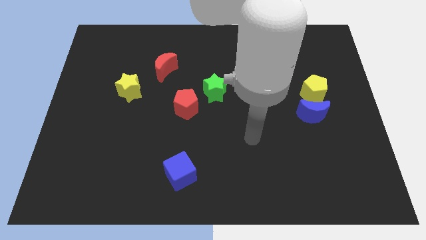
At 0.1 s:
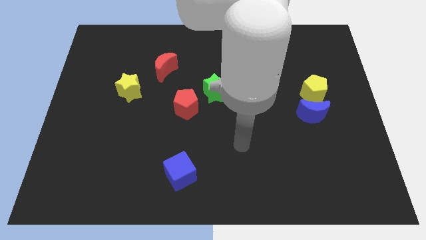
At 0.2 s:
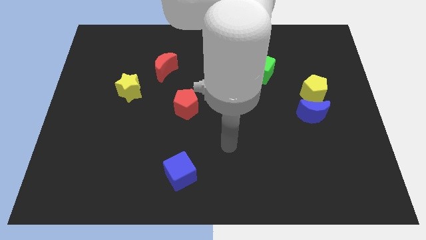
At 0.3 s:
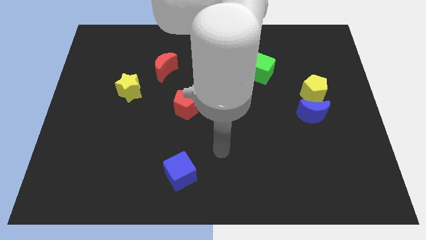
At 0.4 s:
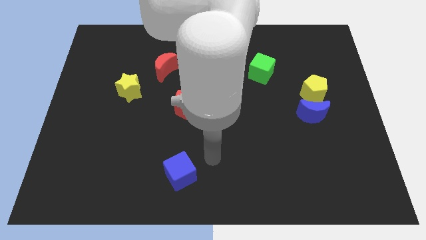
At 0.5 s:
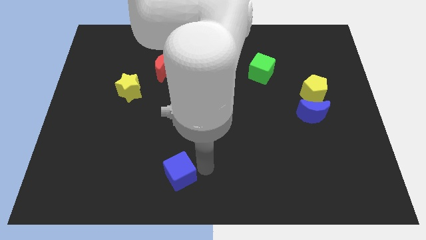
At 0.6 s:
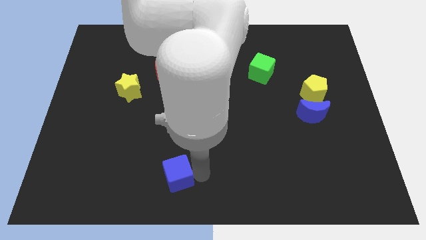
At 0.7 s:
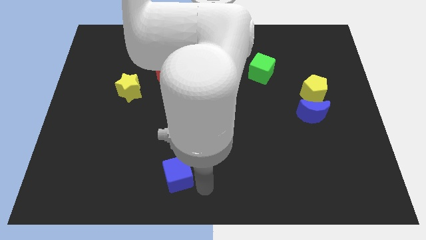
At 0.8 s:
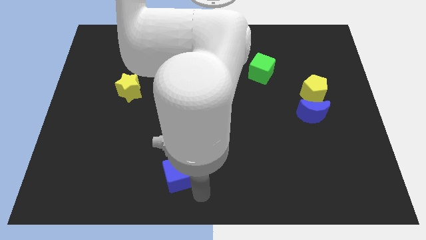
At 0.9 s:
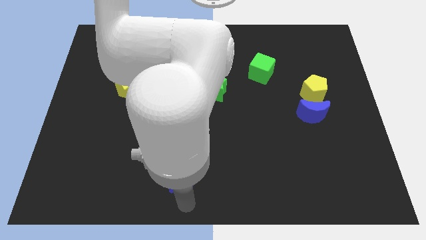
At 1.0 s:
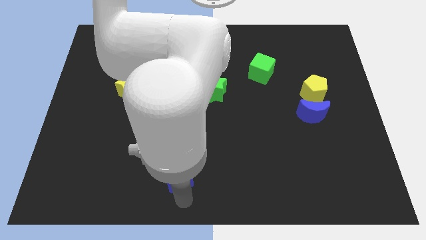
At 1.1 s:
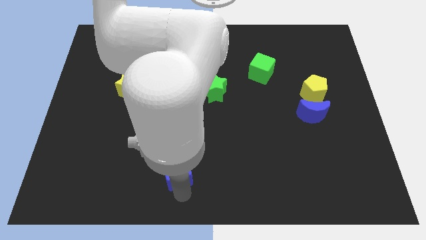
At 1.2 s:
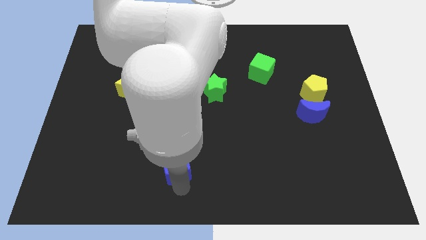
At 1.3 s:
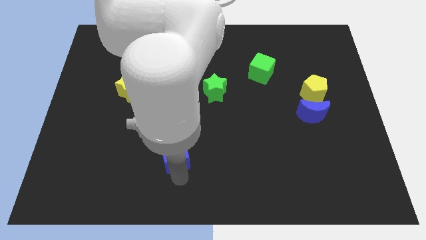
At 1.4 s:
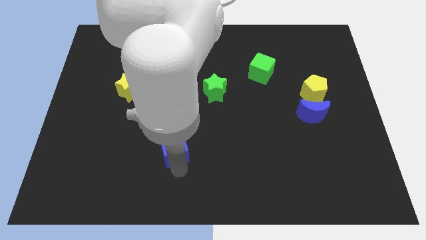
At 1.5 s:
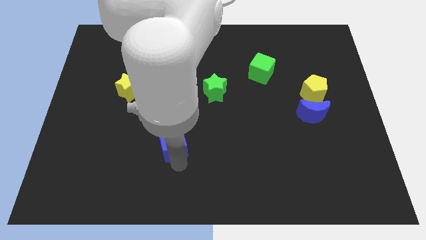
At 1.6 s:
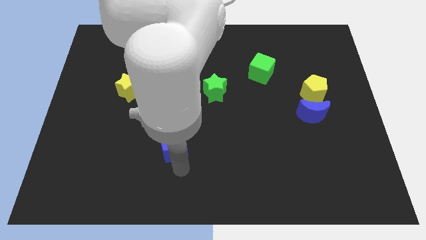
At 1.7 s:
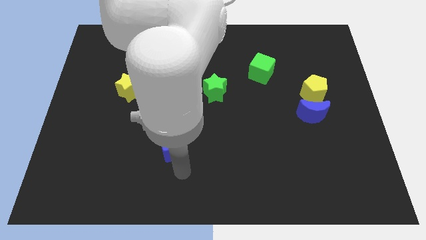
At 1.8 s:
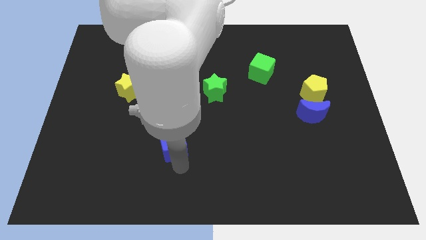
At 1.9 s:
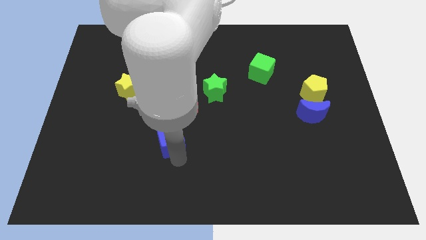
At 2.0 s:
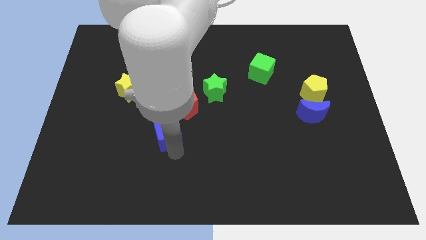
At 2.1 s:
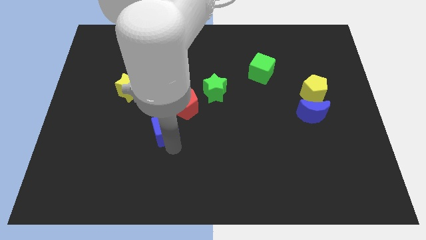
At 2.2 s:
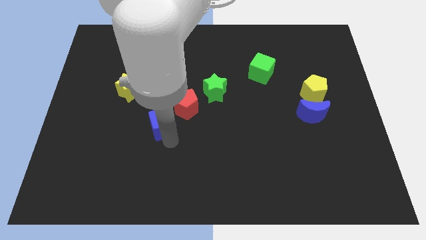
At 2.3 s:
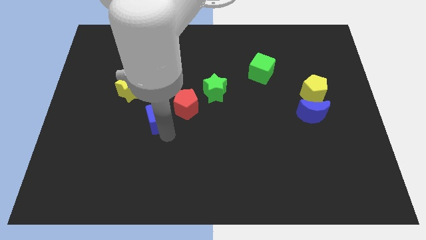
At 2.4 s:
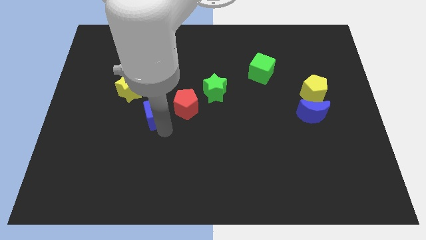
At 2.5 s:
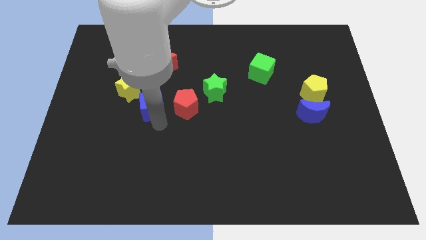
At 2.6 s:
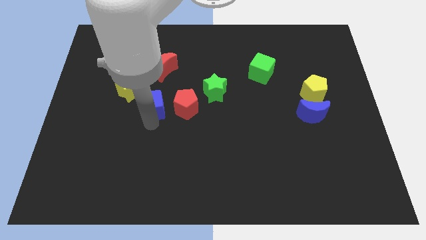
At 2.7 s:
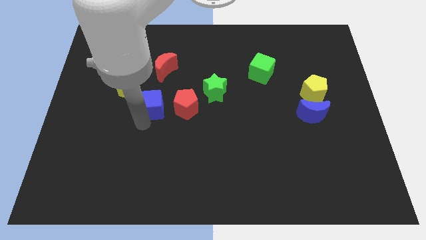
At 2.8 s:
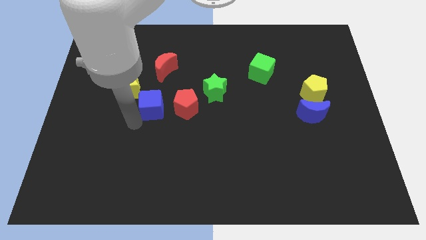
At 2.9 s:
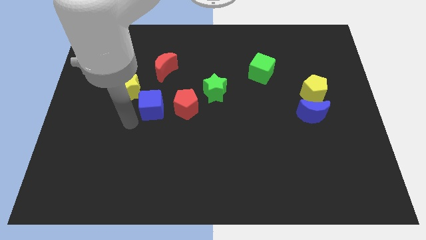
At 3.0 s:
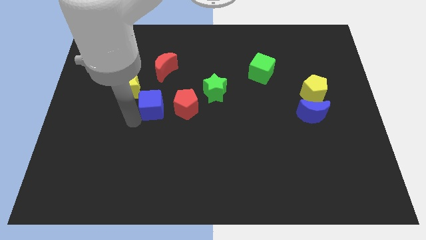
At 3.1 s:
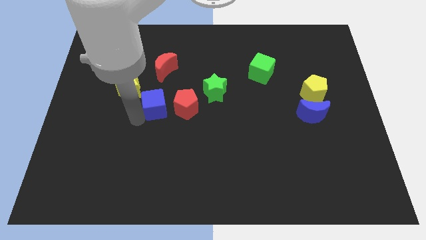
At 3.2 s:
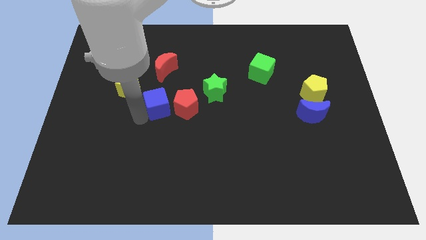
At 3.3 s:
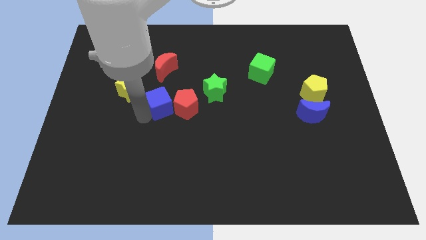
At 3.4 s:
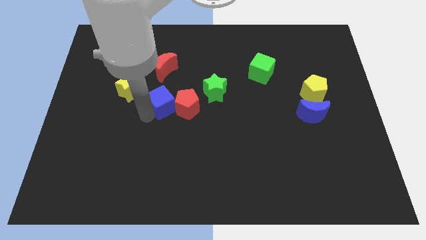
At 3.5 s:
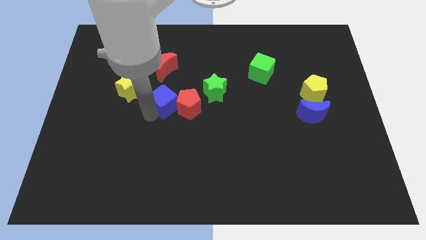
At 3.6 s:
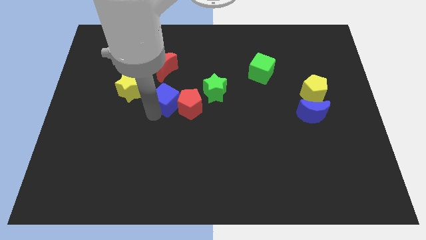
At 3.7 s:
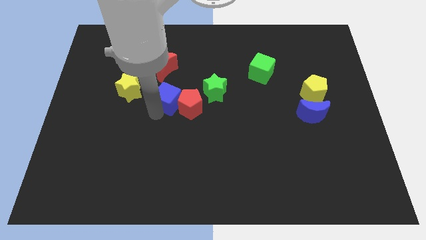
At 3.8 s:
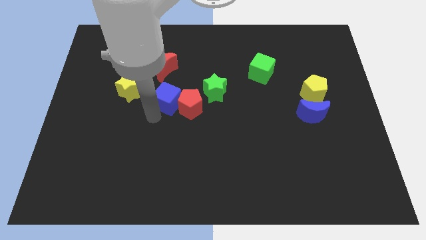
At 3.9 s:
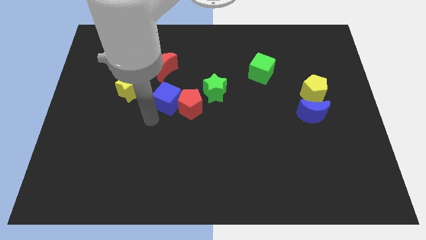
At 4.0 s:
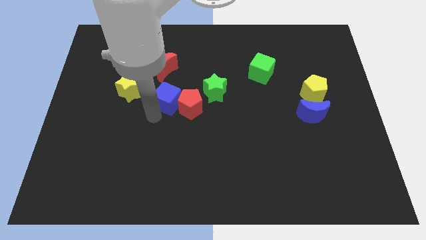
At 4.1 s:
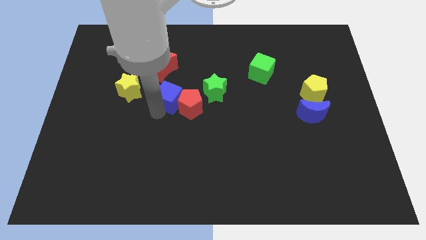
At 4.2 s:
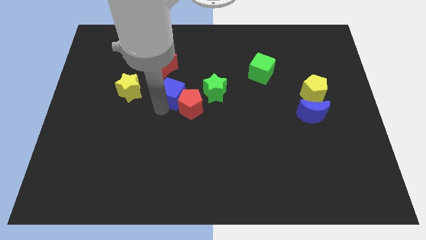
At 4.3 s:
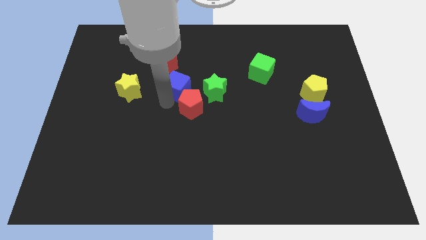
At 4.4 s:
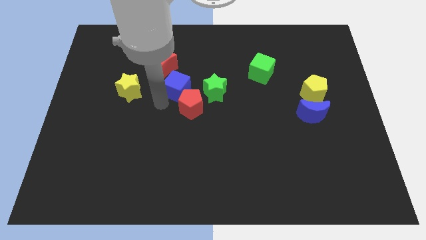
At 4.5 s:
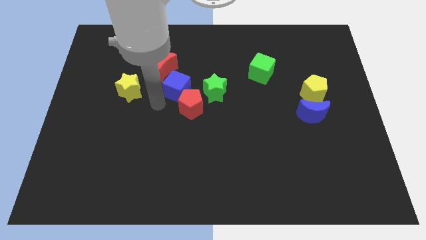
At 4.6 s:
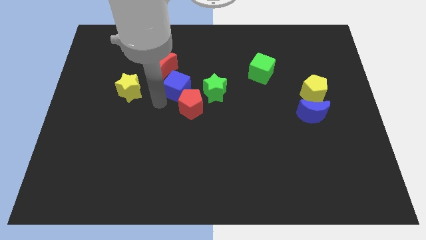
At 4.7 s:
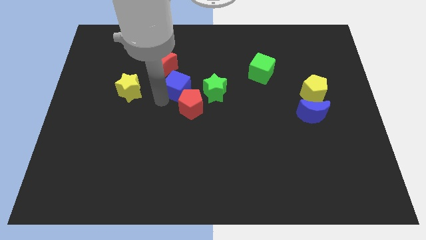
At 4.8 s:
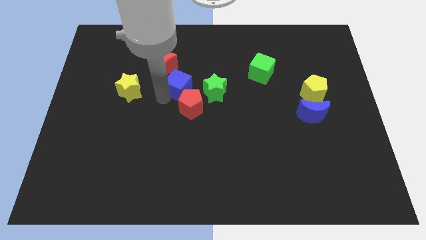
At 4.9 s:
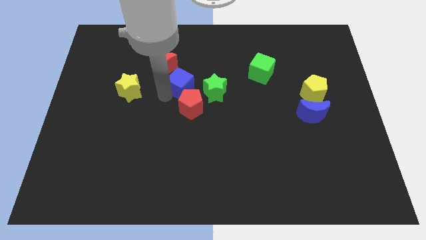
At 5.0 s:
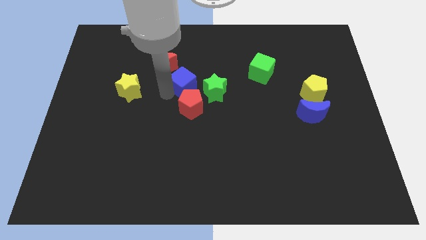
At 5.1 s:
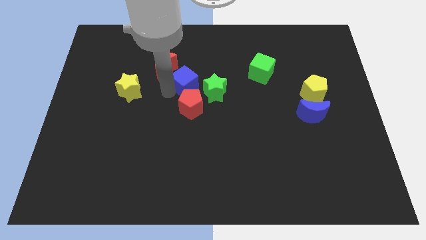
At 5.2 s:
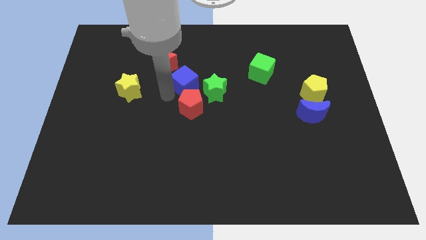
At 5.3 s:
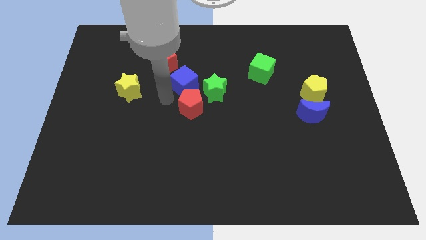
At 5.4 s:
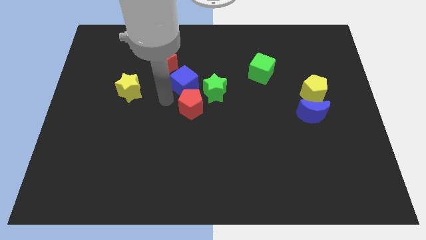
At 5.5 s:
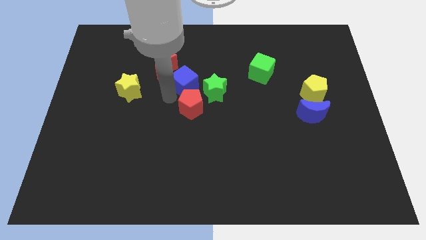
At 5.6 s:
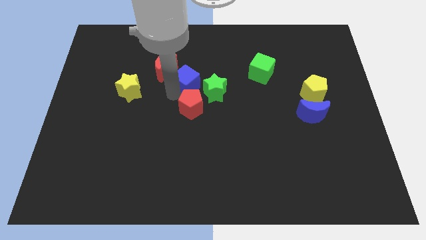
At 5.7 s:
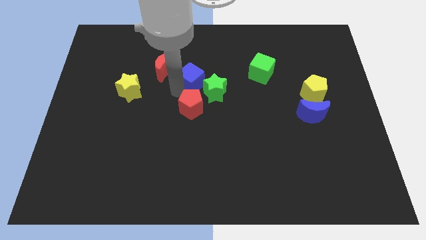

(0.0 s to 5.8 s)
move the blue cube to the right of the red moon

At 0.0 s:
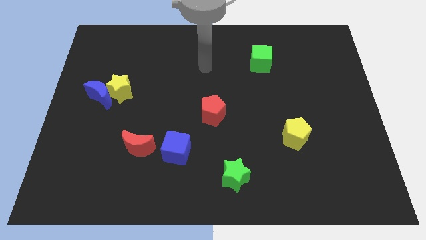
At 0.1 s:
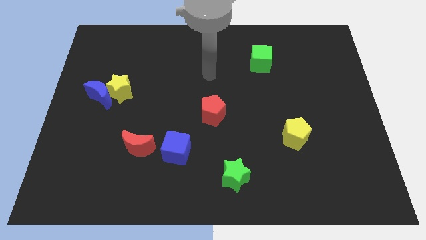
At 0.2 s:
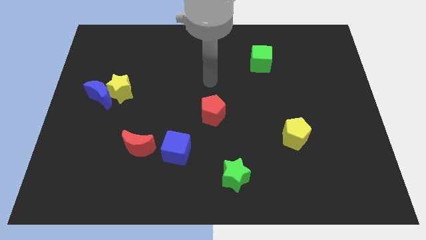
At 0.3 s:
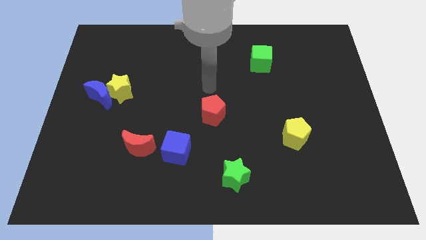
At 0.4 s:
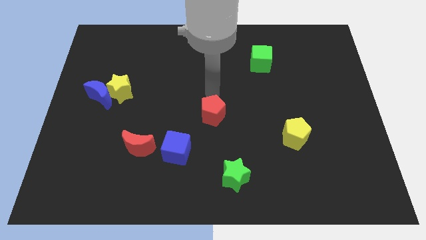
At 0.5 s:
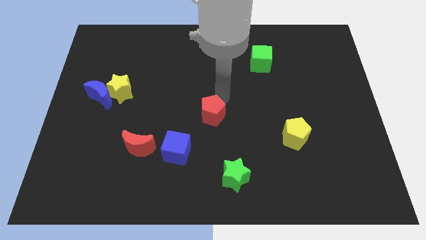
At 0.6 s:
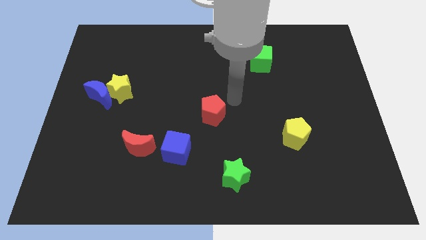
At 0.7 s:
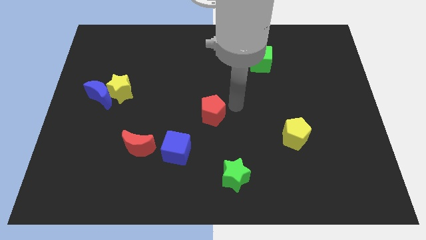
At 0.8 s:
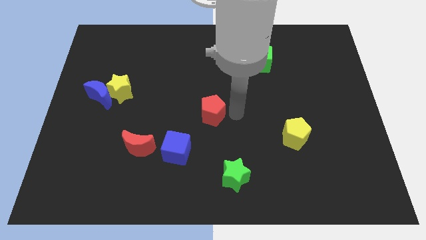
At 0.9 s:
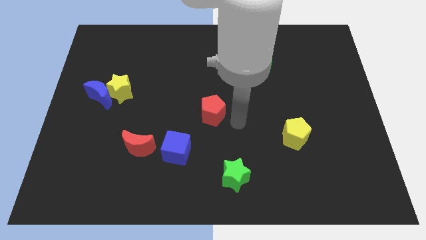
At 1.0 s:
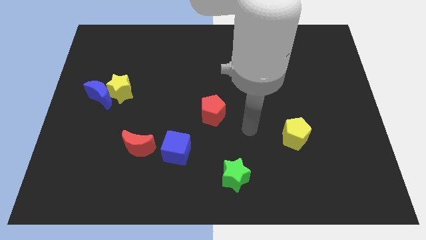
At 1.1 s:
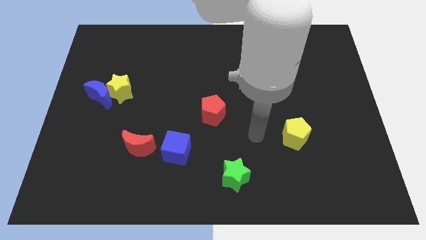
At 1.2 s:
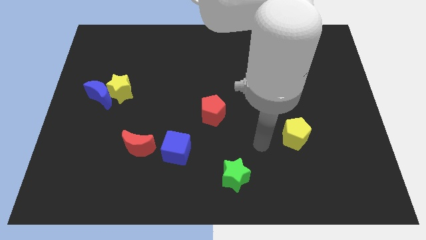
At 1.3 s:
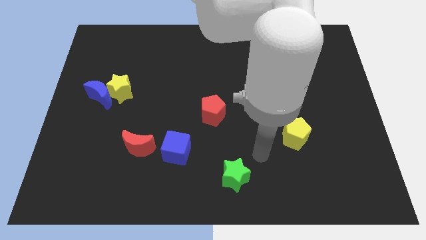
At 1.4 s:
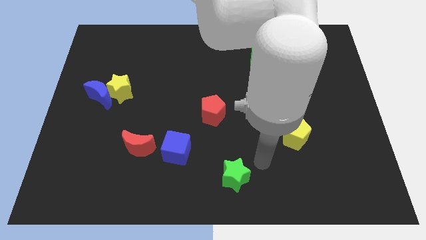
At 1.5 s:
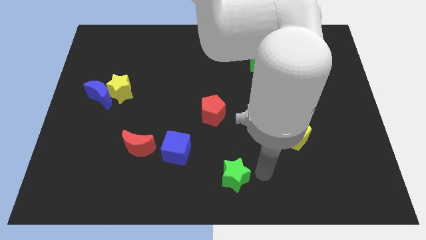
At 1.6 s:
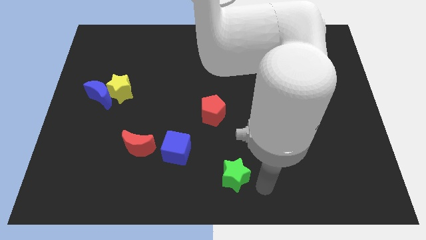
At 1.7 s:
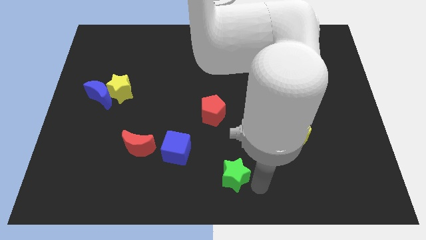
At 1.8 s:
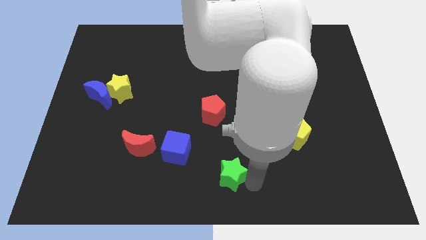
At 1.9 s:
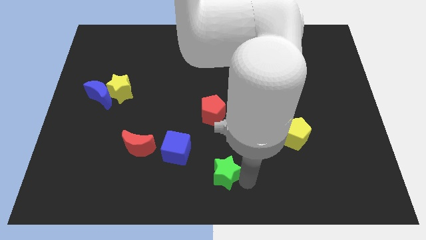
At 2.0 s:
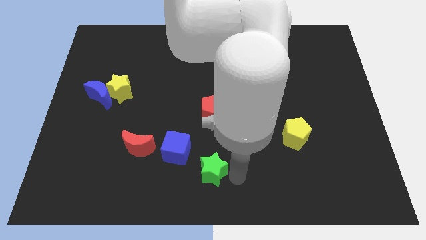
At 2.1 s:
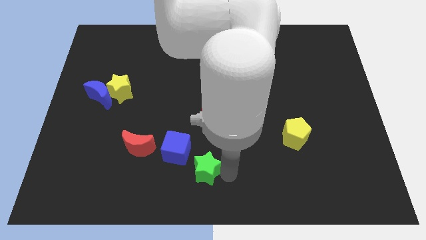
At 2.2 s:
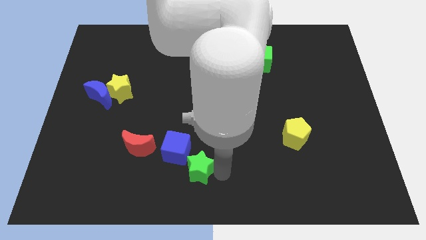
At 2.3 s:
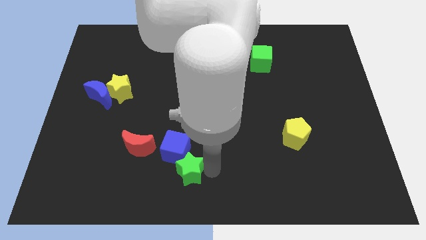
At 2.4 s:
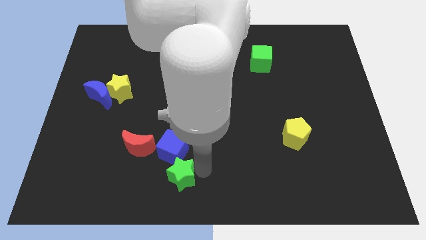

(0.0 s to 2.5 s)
put the green star to the bottom right of the red moon

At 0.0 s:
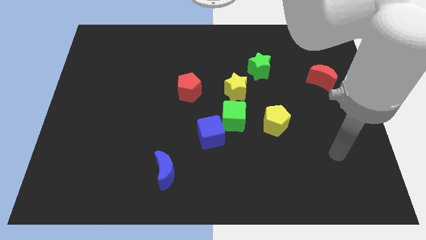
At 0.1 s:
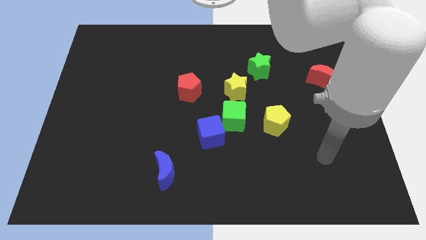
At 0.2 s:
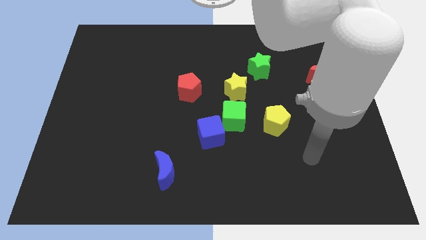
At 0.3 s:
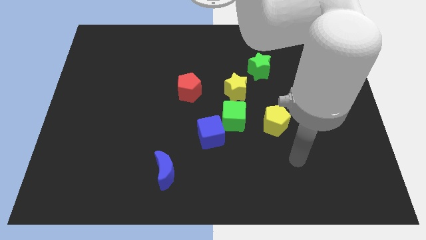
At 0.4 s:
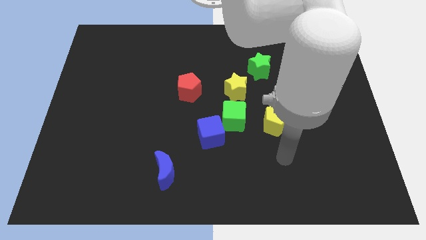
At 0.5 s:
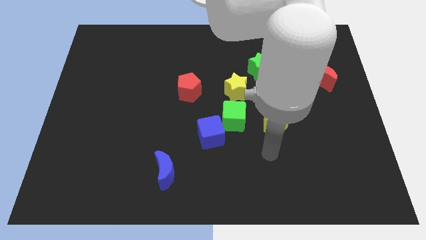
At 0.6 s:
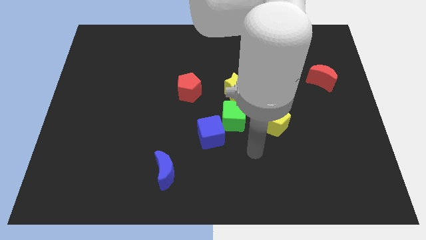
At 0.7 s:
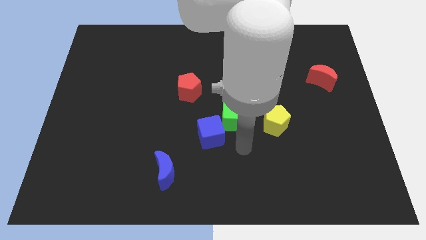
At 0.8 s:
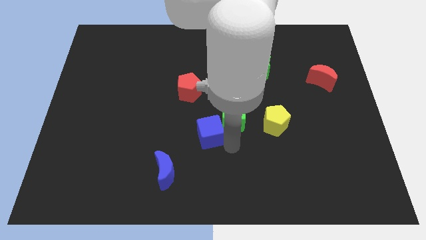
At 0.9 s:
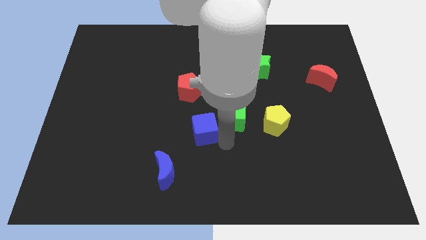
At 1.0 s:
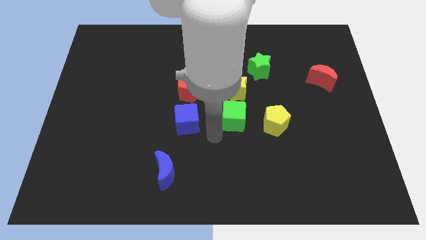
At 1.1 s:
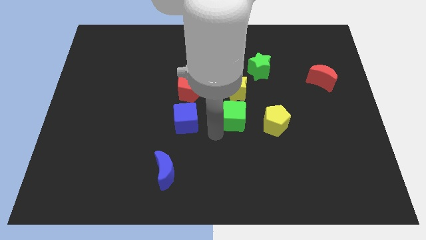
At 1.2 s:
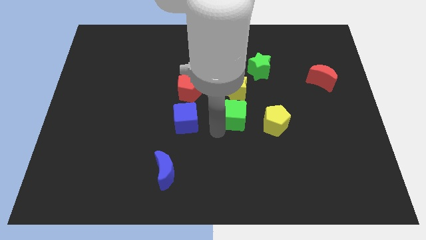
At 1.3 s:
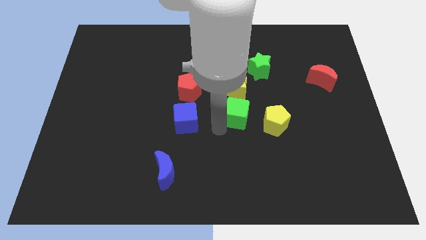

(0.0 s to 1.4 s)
push the green cube to the top left side of the yellow pentagon
